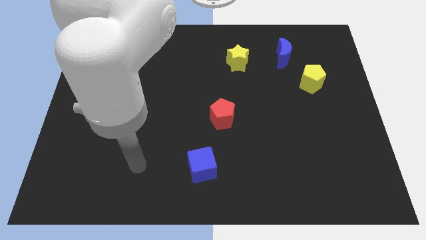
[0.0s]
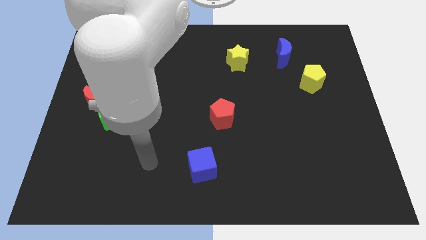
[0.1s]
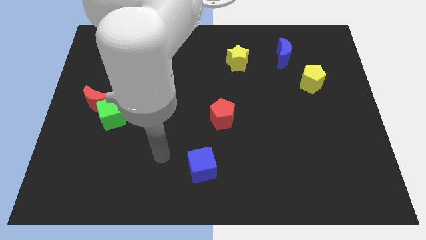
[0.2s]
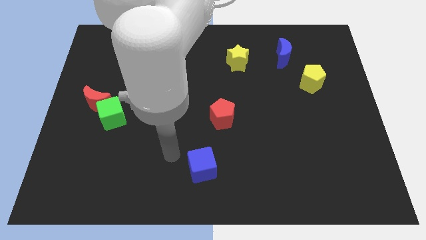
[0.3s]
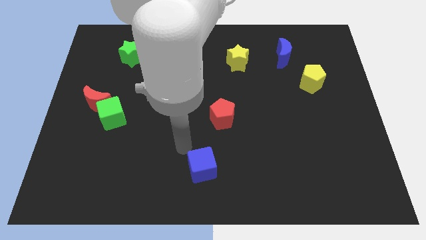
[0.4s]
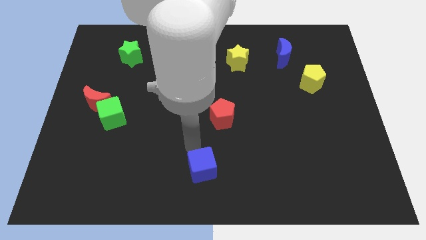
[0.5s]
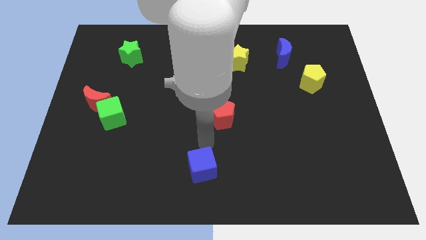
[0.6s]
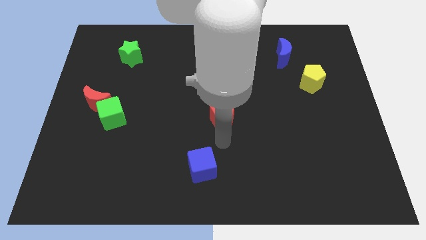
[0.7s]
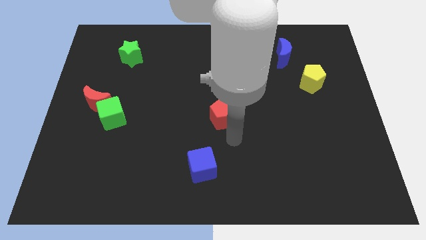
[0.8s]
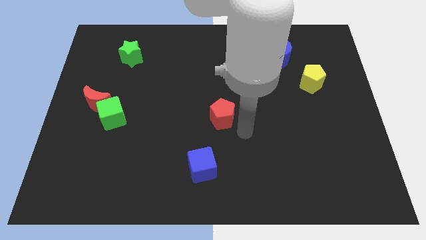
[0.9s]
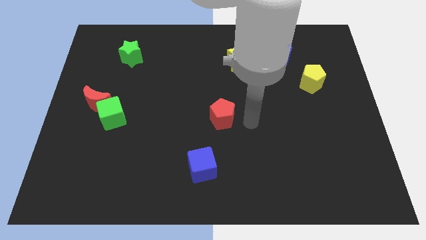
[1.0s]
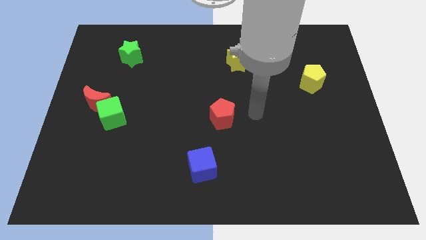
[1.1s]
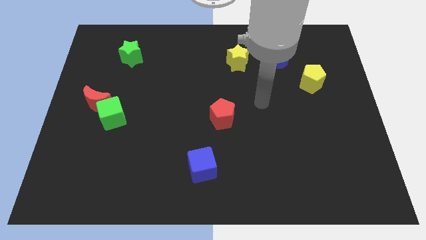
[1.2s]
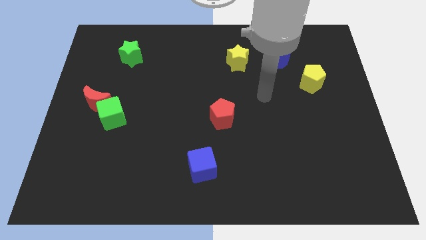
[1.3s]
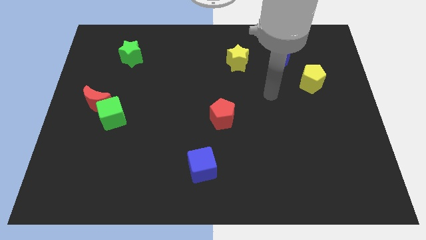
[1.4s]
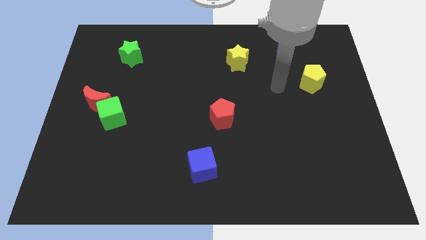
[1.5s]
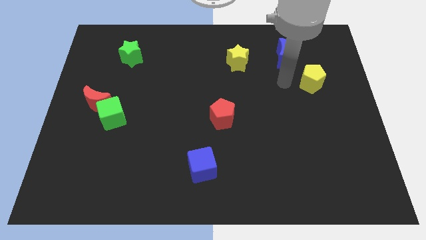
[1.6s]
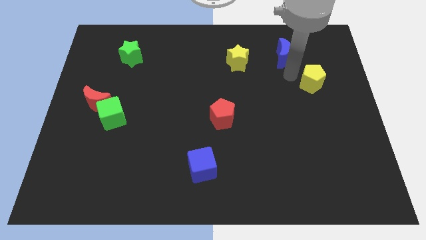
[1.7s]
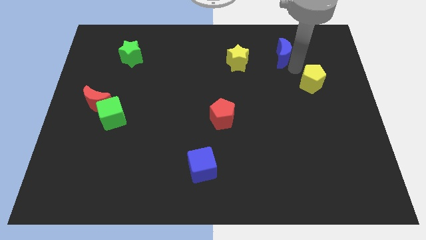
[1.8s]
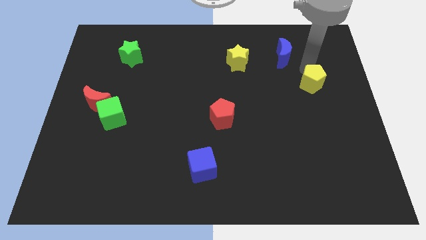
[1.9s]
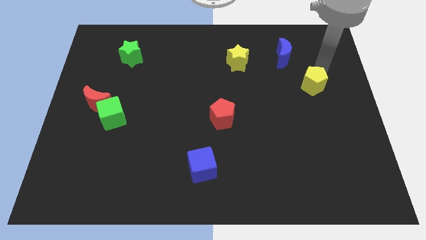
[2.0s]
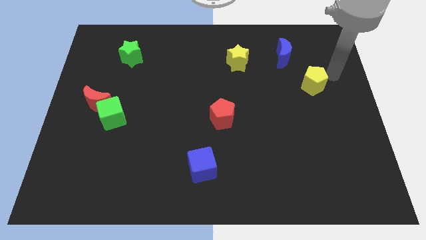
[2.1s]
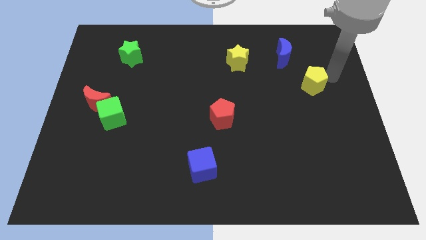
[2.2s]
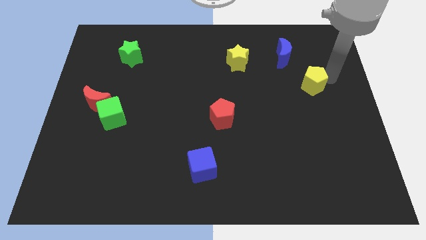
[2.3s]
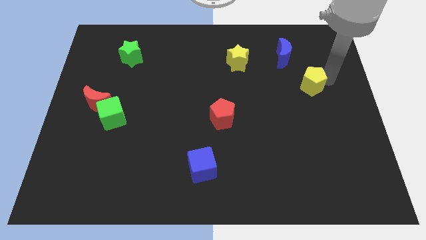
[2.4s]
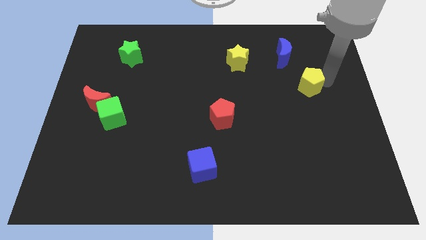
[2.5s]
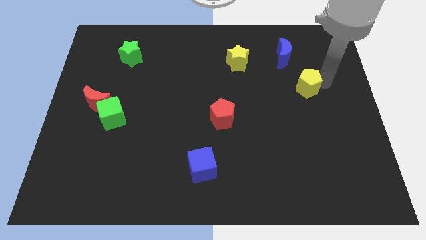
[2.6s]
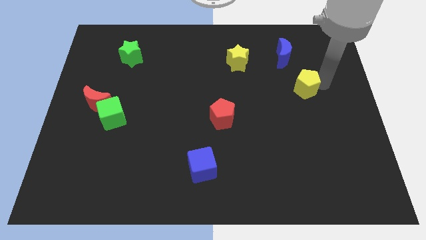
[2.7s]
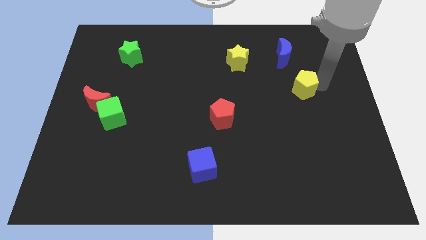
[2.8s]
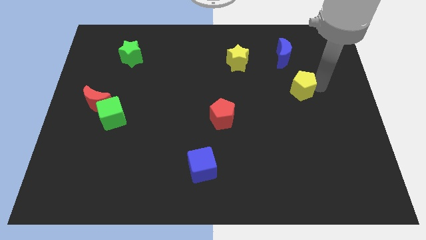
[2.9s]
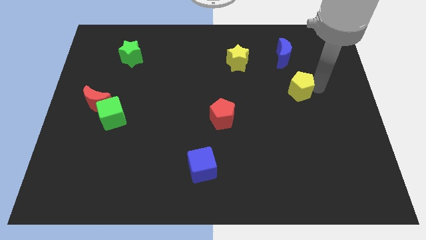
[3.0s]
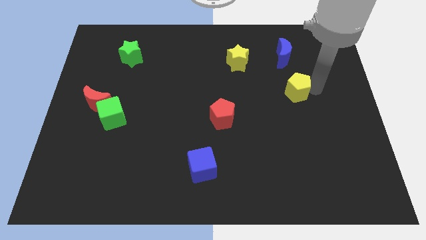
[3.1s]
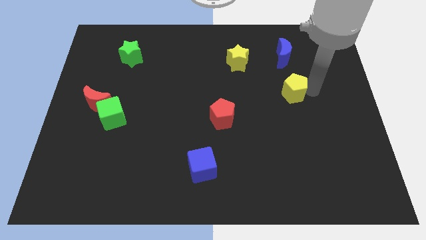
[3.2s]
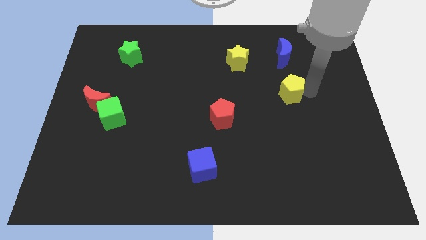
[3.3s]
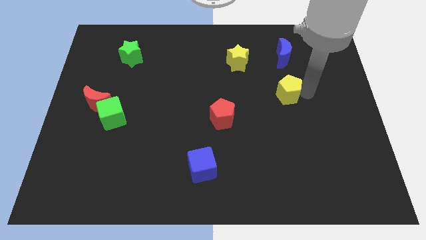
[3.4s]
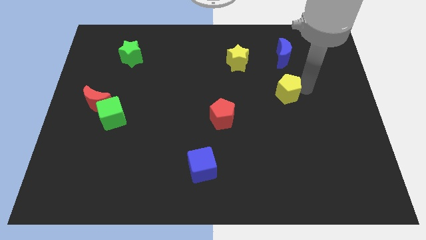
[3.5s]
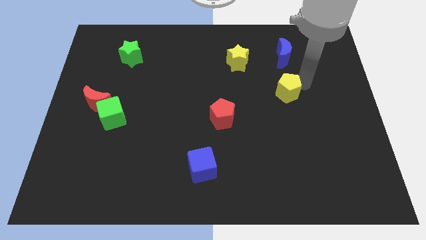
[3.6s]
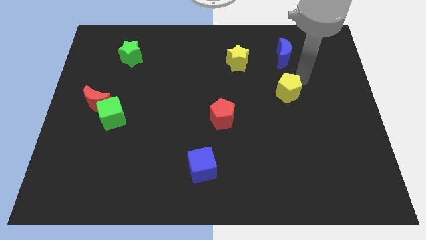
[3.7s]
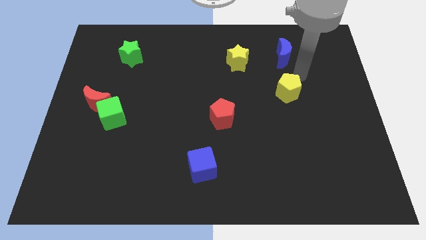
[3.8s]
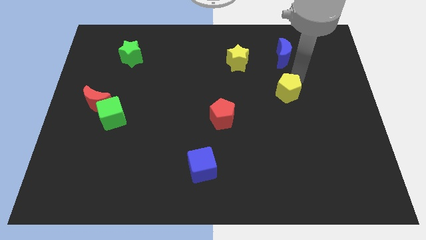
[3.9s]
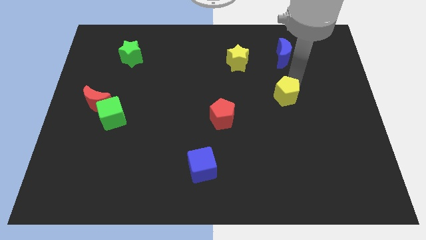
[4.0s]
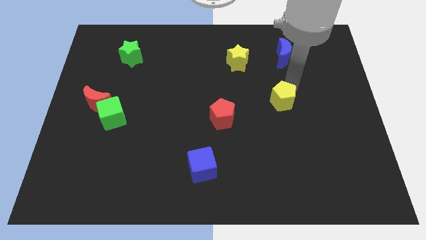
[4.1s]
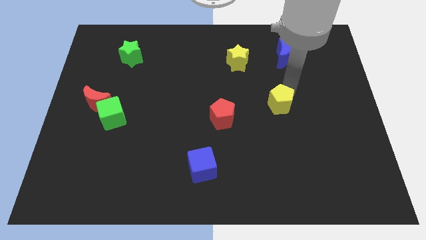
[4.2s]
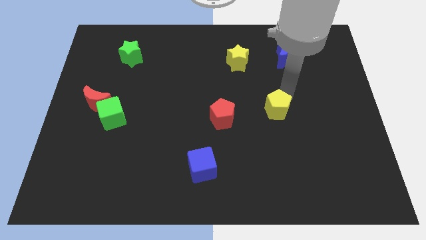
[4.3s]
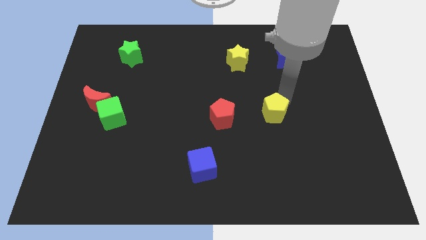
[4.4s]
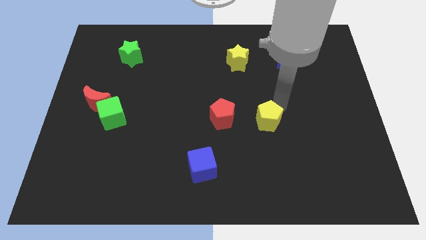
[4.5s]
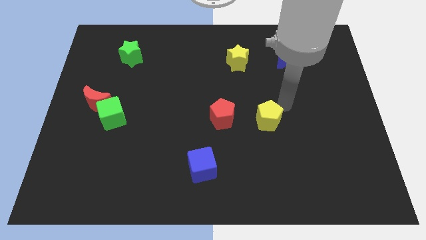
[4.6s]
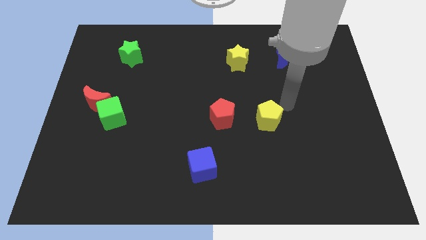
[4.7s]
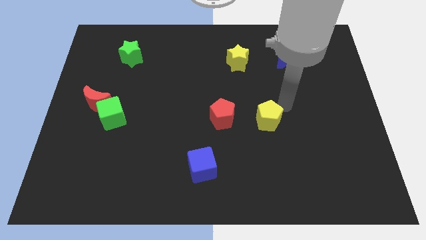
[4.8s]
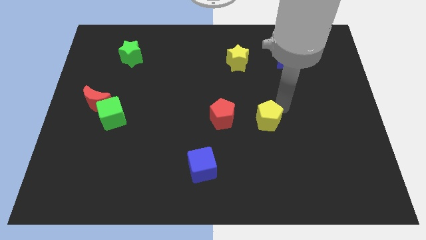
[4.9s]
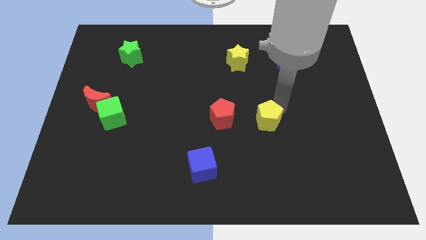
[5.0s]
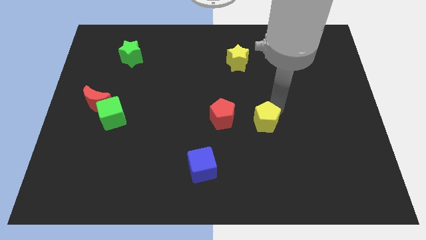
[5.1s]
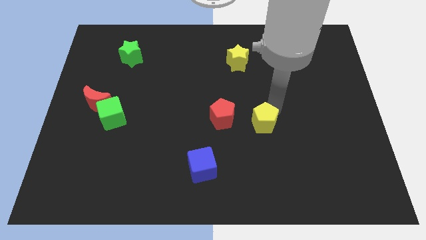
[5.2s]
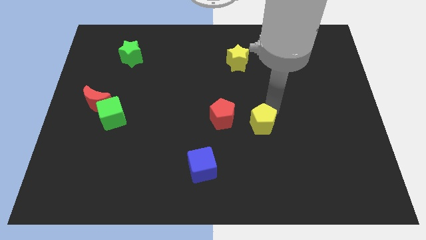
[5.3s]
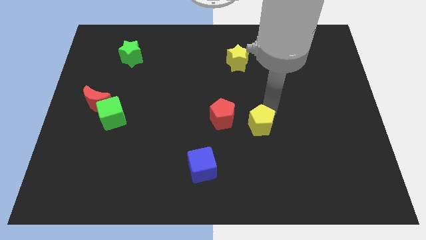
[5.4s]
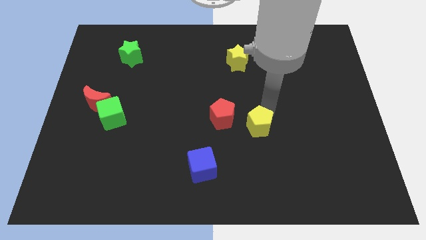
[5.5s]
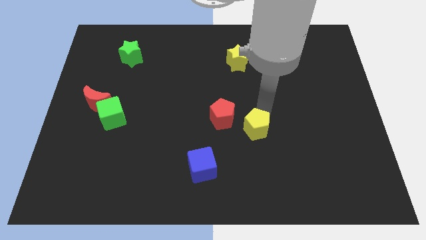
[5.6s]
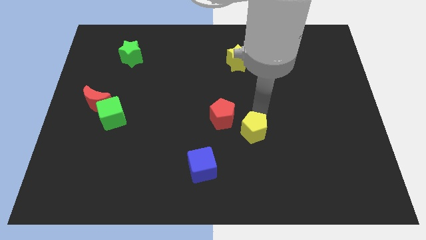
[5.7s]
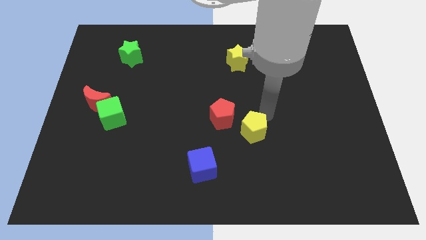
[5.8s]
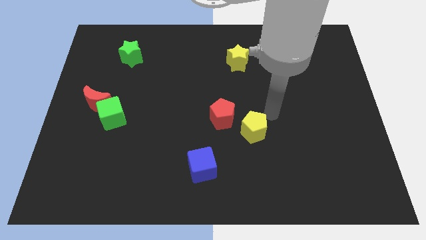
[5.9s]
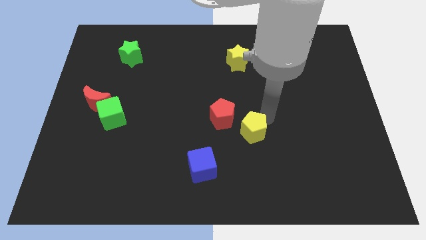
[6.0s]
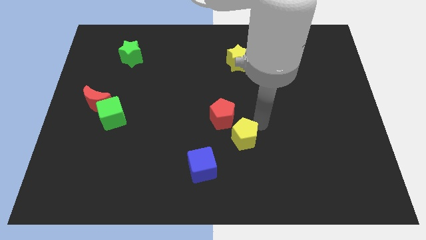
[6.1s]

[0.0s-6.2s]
push the yellow pentagon to the bottom of the red pentagon

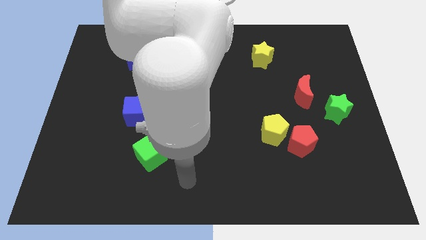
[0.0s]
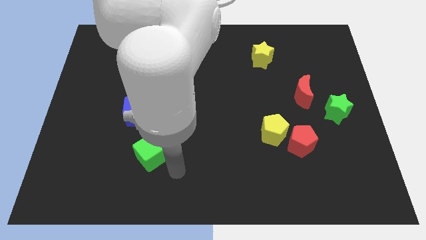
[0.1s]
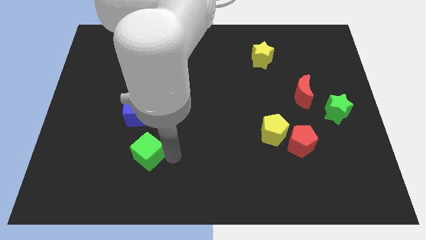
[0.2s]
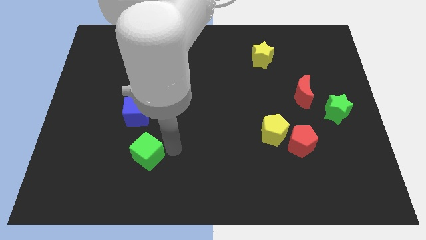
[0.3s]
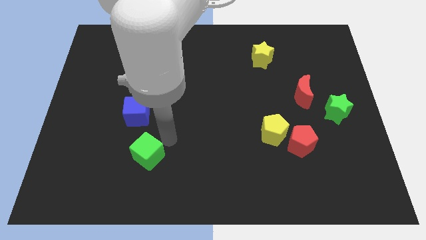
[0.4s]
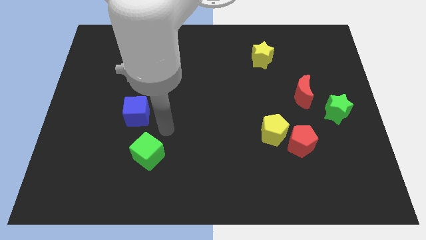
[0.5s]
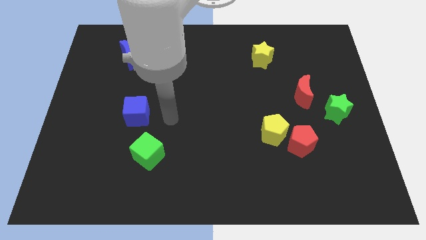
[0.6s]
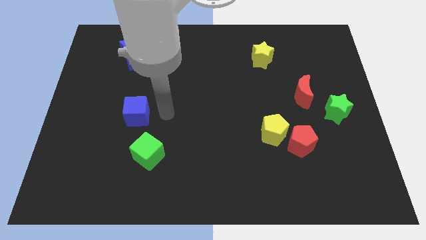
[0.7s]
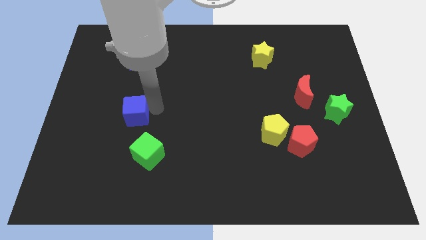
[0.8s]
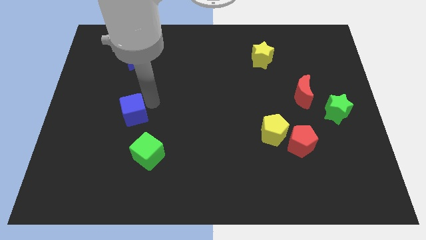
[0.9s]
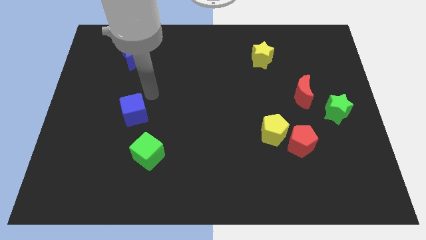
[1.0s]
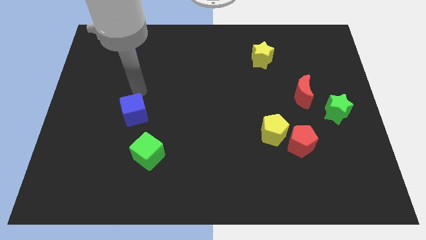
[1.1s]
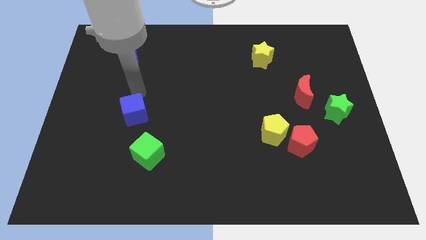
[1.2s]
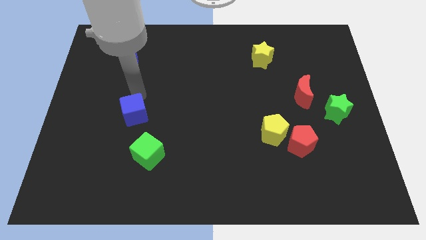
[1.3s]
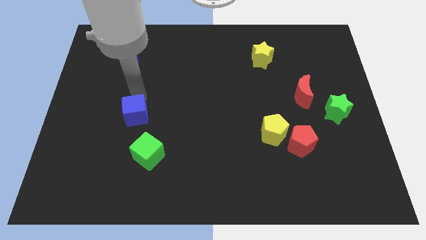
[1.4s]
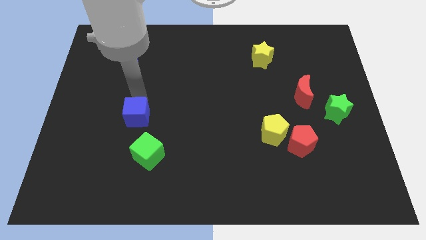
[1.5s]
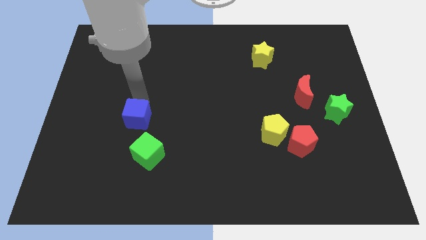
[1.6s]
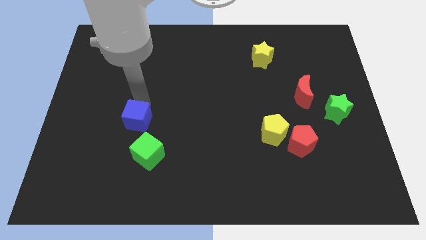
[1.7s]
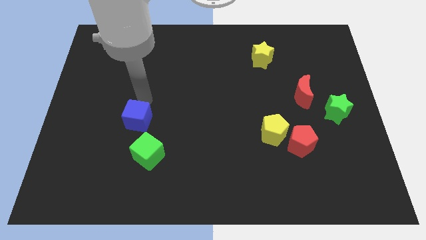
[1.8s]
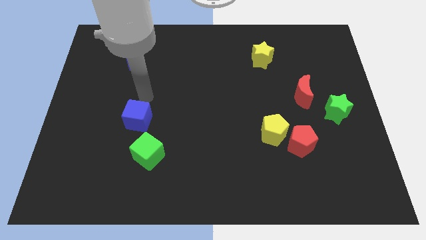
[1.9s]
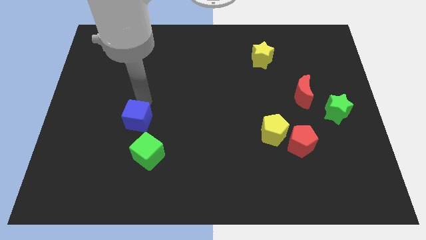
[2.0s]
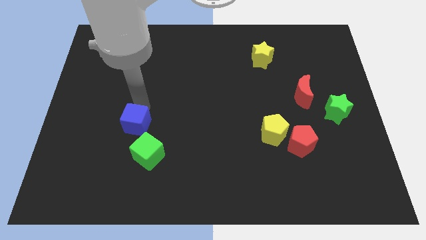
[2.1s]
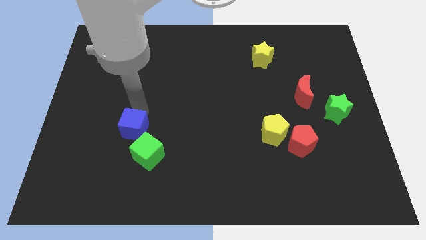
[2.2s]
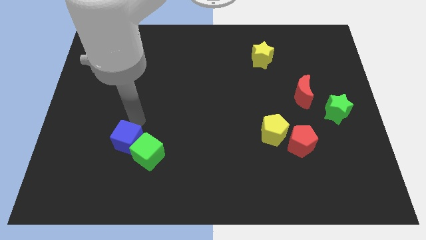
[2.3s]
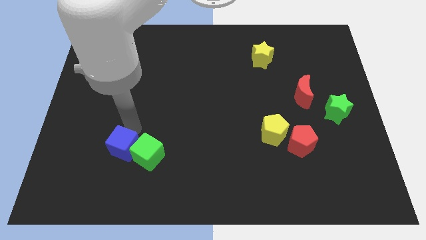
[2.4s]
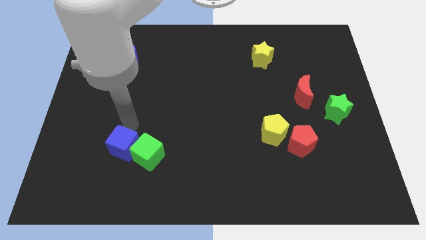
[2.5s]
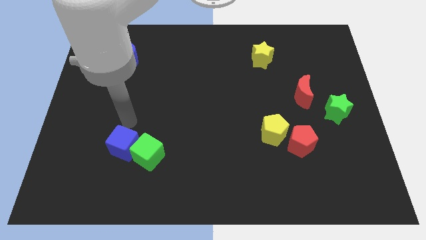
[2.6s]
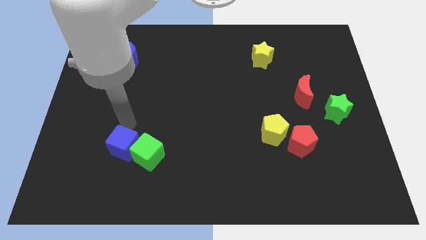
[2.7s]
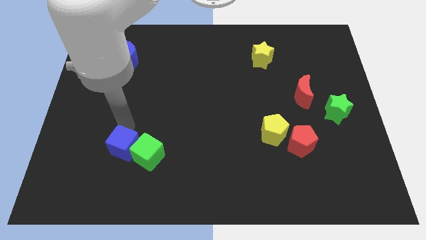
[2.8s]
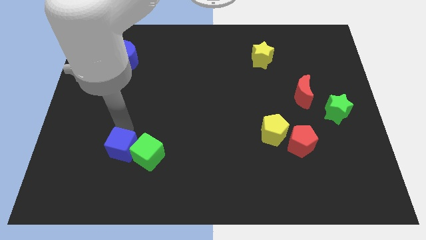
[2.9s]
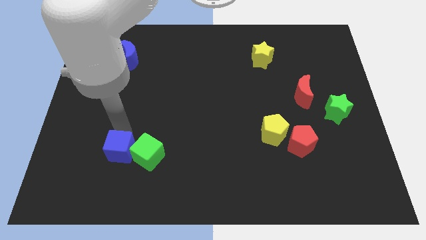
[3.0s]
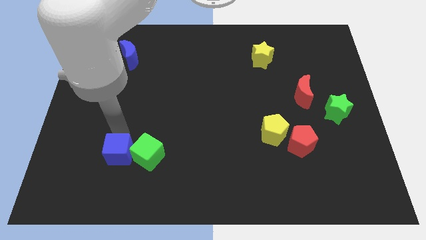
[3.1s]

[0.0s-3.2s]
move the blue cube to the bottom left side of the green cube
